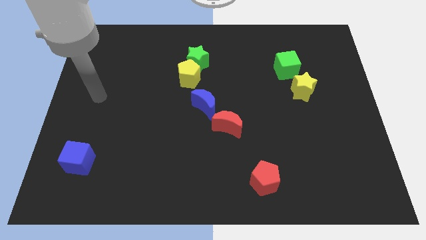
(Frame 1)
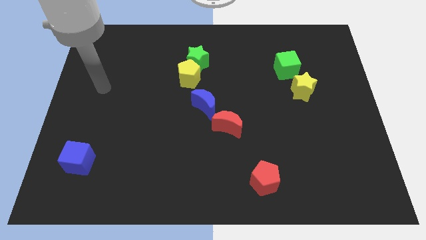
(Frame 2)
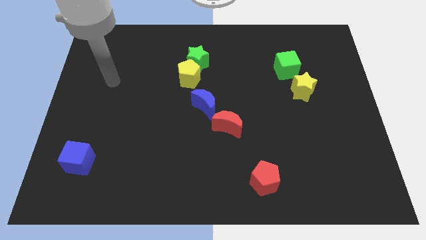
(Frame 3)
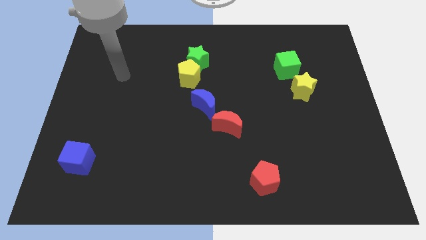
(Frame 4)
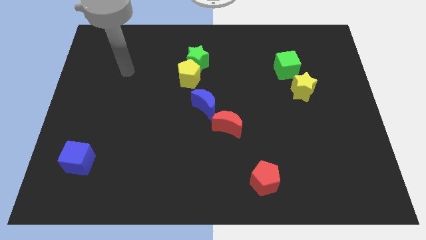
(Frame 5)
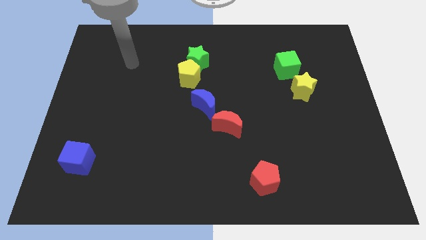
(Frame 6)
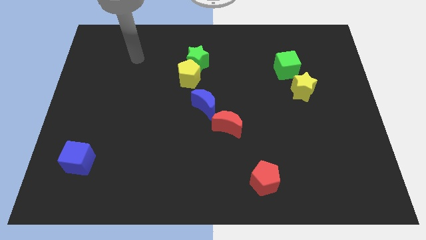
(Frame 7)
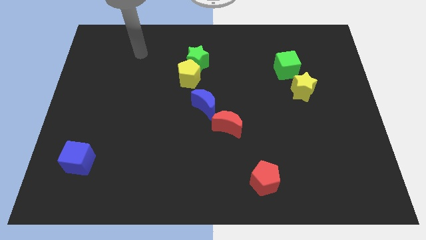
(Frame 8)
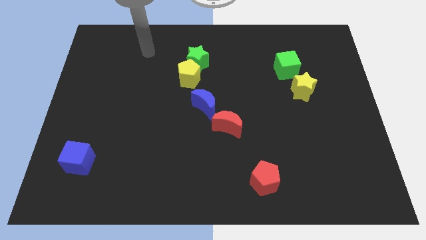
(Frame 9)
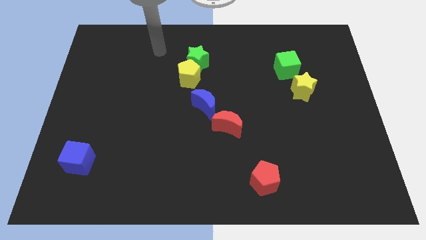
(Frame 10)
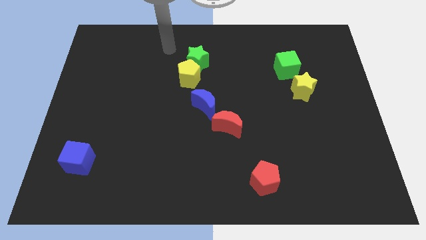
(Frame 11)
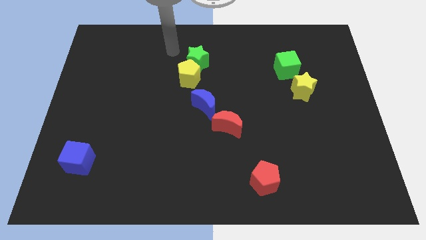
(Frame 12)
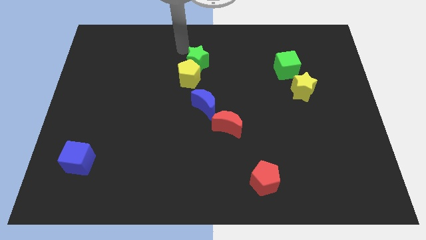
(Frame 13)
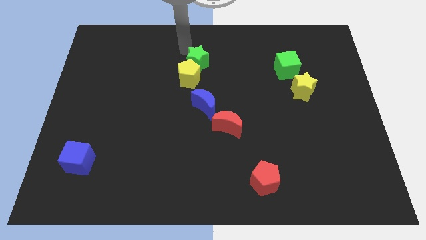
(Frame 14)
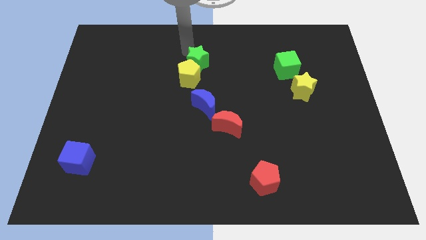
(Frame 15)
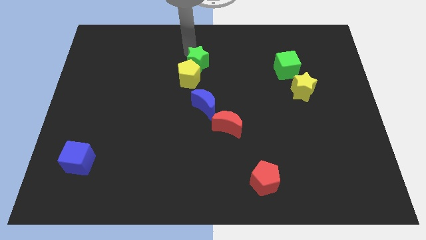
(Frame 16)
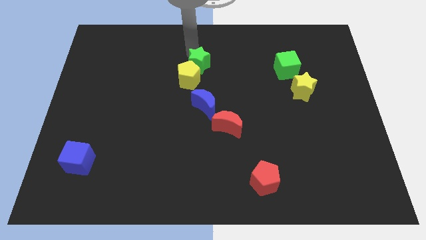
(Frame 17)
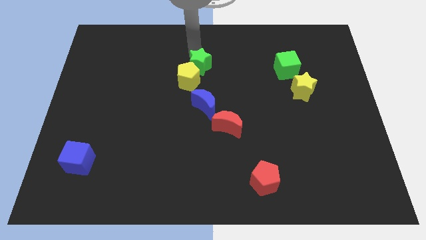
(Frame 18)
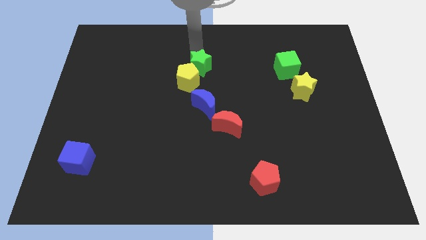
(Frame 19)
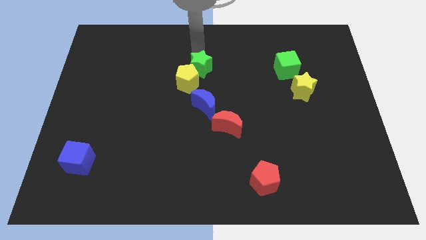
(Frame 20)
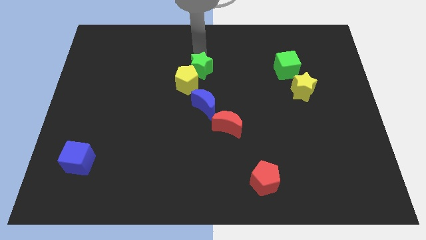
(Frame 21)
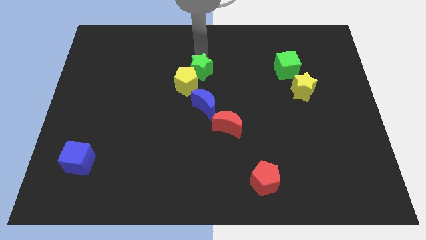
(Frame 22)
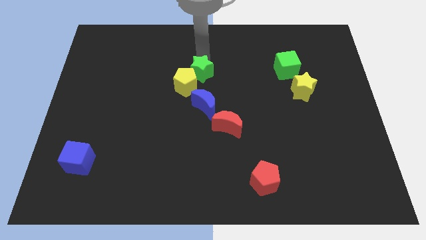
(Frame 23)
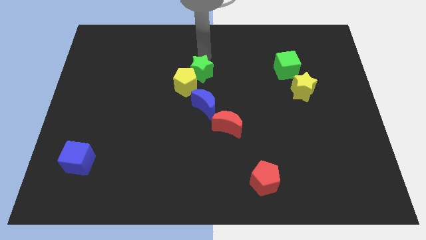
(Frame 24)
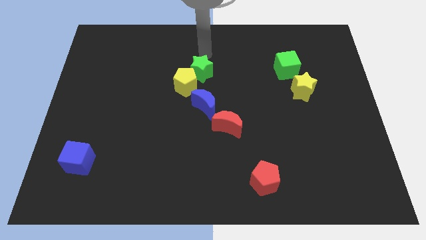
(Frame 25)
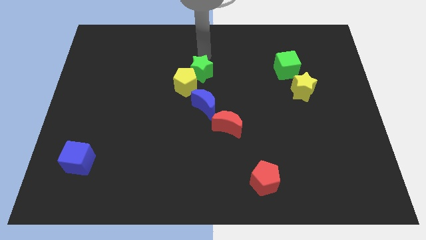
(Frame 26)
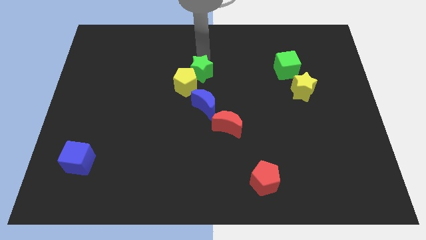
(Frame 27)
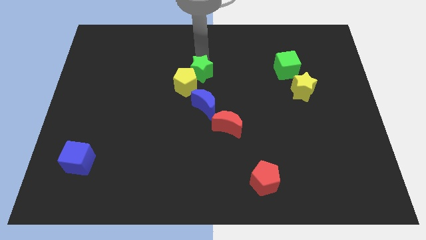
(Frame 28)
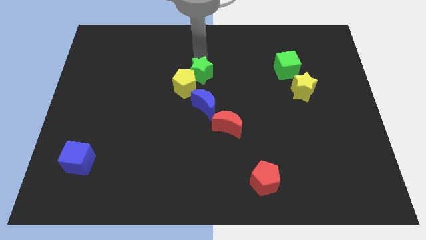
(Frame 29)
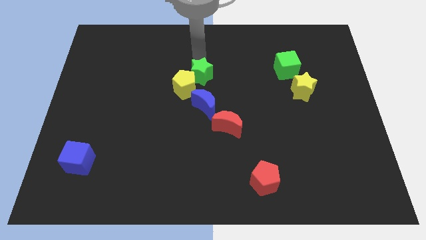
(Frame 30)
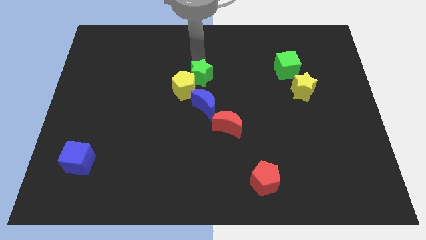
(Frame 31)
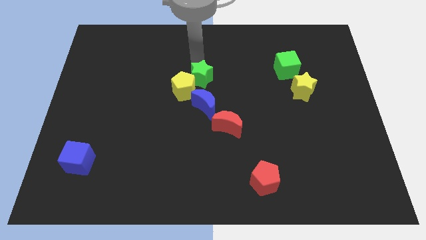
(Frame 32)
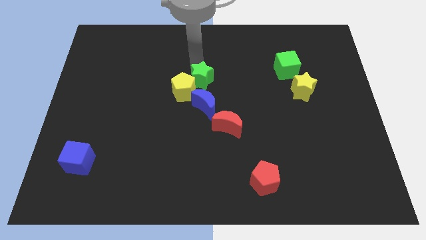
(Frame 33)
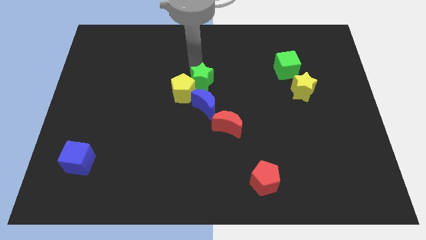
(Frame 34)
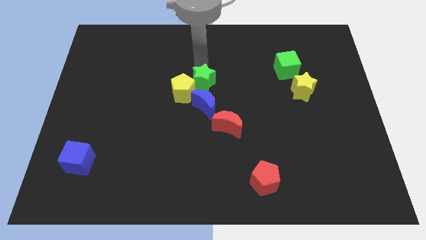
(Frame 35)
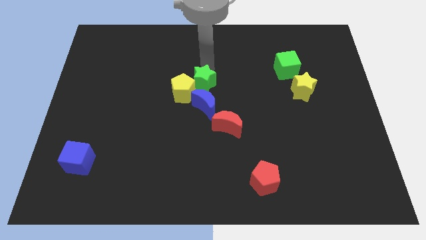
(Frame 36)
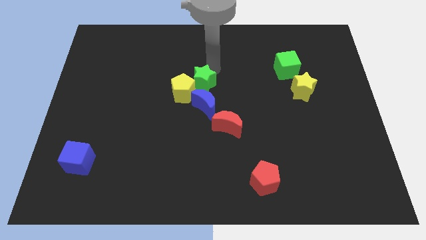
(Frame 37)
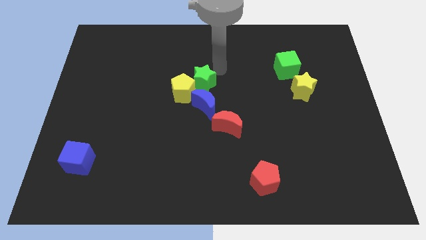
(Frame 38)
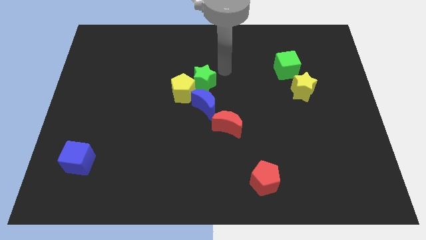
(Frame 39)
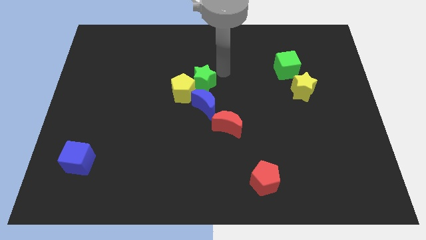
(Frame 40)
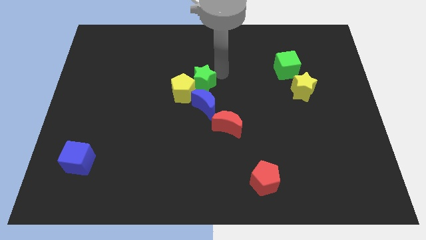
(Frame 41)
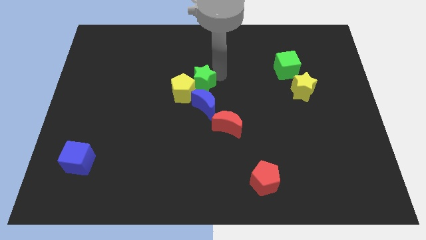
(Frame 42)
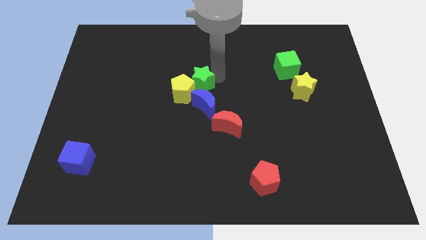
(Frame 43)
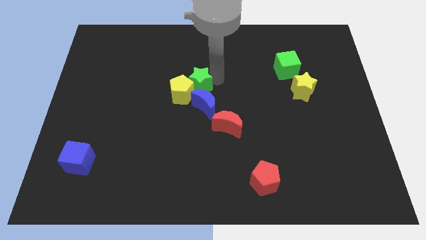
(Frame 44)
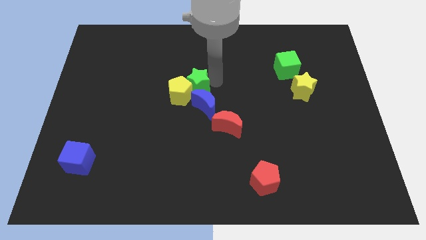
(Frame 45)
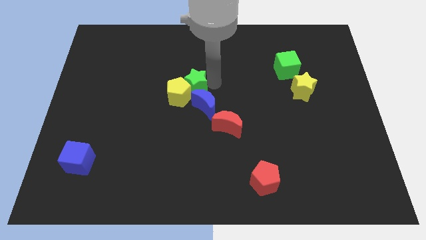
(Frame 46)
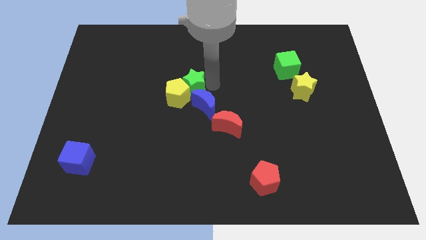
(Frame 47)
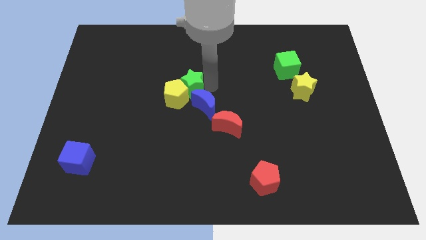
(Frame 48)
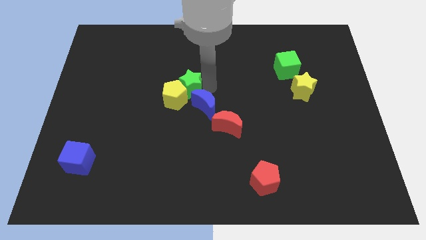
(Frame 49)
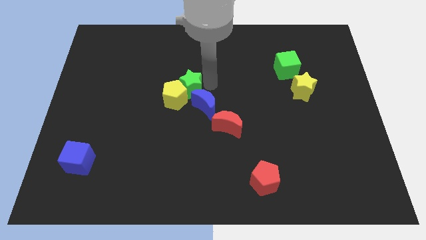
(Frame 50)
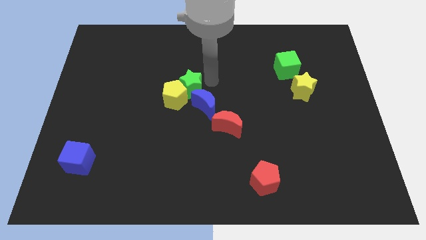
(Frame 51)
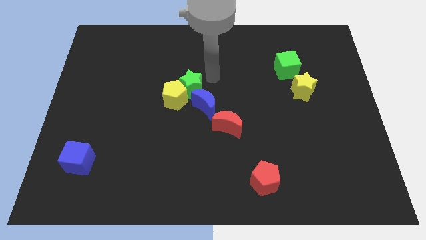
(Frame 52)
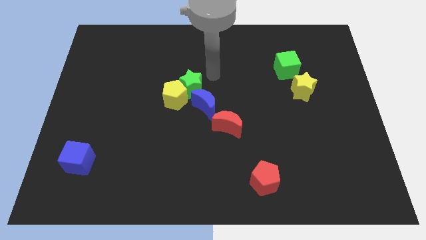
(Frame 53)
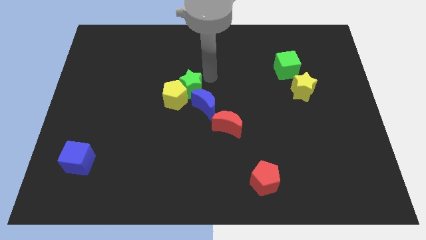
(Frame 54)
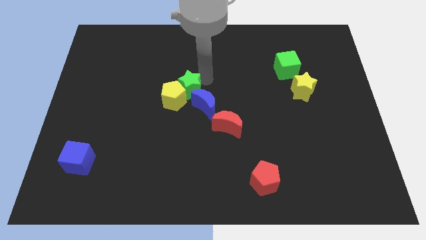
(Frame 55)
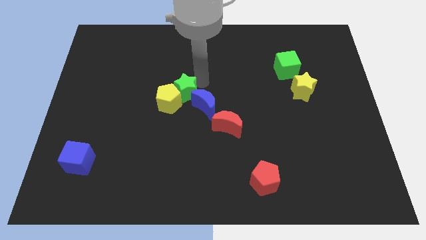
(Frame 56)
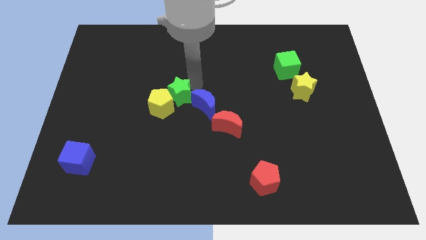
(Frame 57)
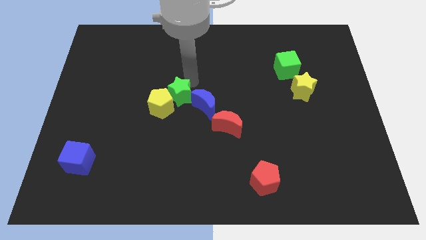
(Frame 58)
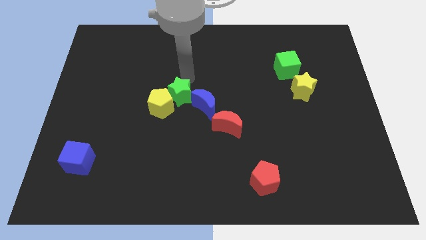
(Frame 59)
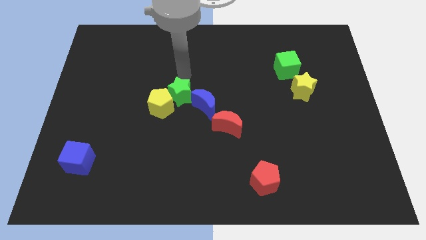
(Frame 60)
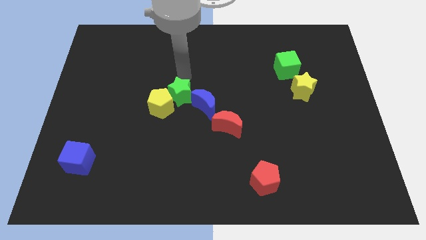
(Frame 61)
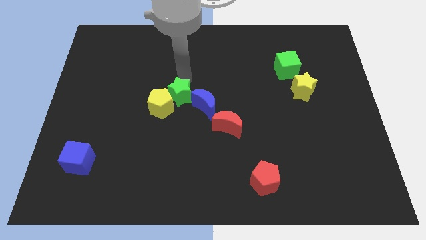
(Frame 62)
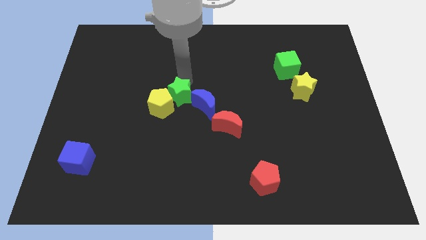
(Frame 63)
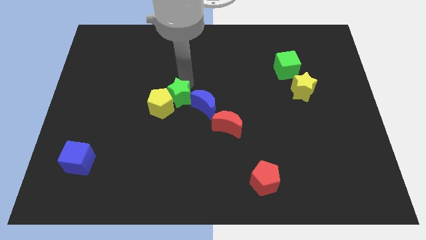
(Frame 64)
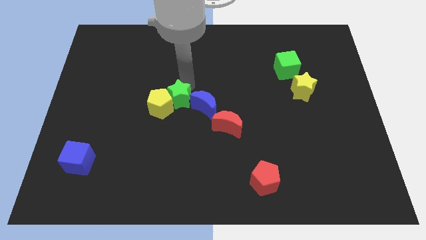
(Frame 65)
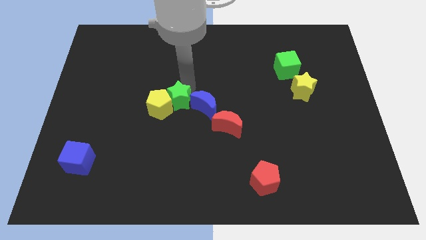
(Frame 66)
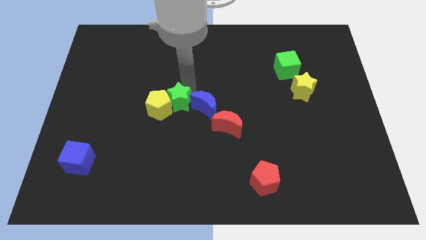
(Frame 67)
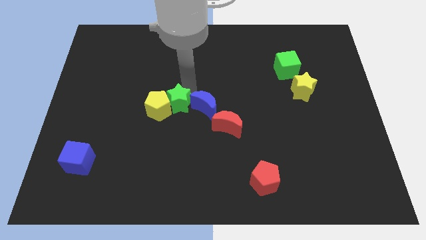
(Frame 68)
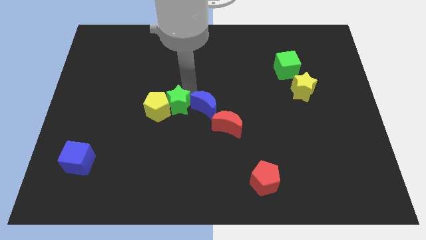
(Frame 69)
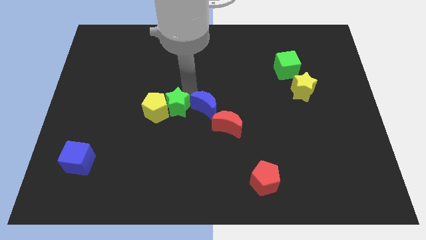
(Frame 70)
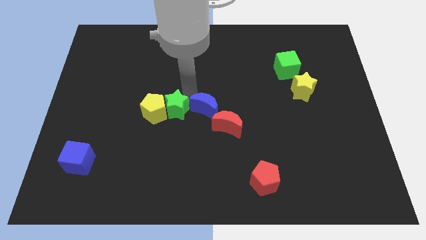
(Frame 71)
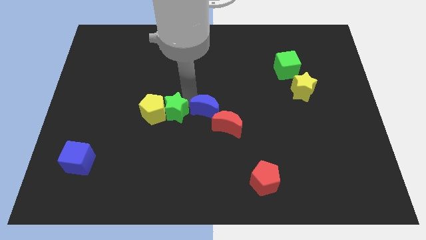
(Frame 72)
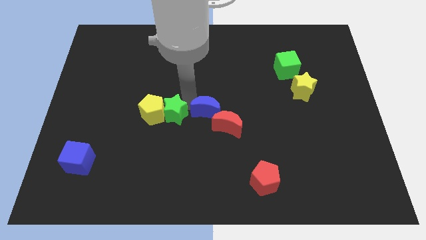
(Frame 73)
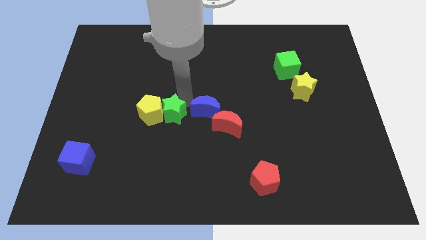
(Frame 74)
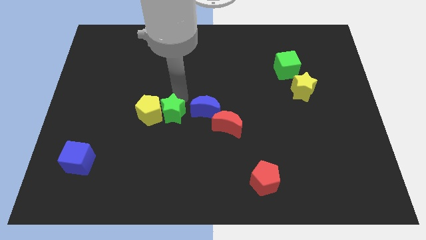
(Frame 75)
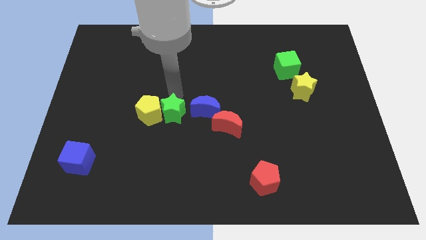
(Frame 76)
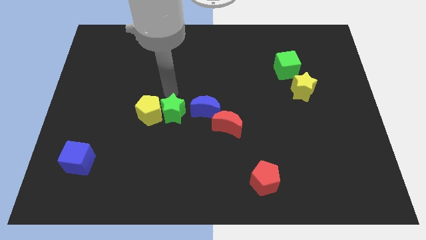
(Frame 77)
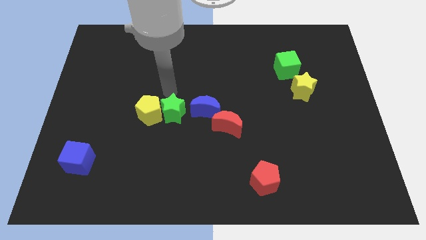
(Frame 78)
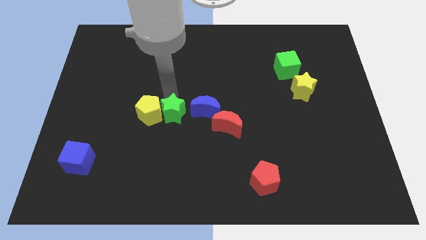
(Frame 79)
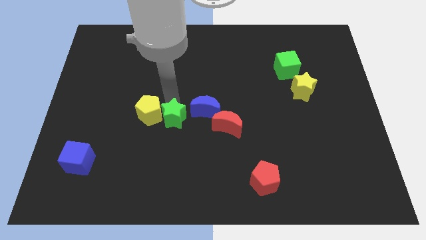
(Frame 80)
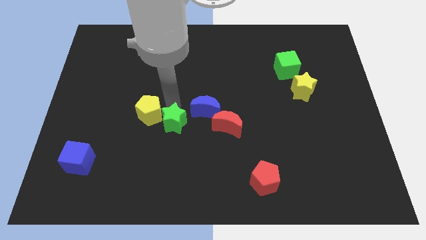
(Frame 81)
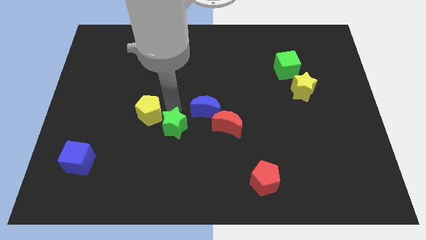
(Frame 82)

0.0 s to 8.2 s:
push the green star downwards

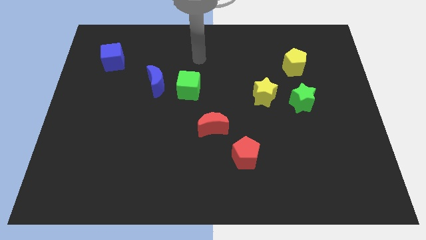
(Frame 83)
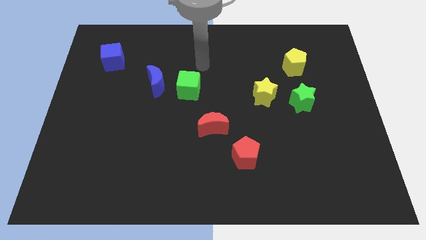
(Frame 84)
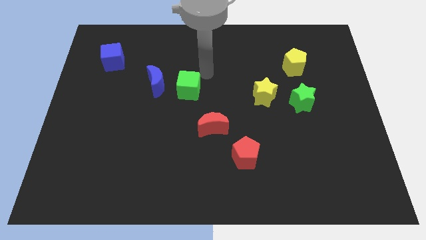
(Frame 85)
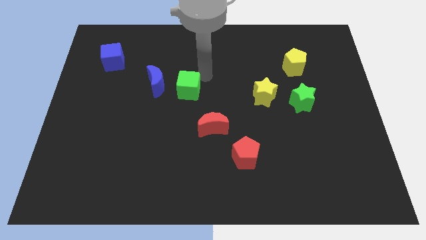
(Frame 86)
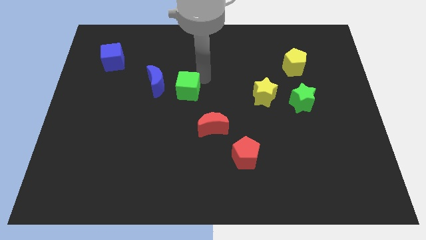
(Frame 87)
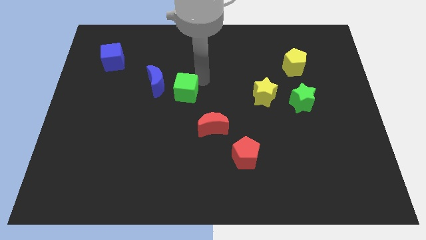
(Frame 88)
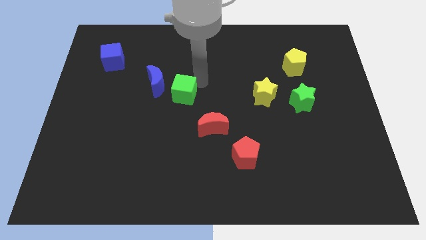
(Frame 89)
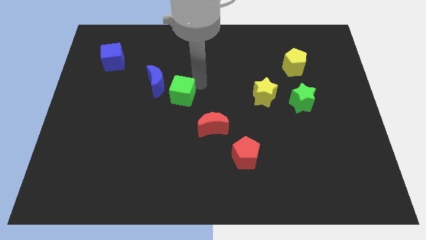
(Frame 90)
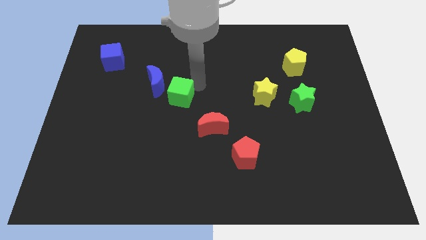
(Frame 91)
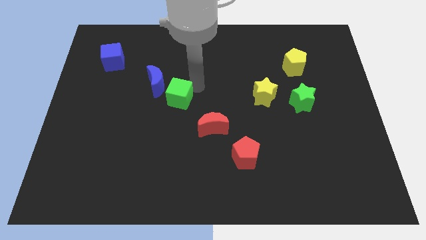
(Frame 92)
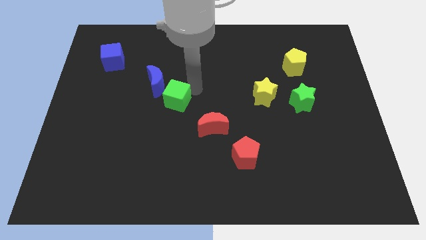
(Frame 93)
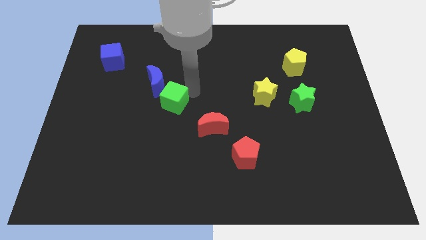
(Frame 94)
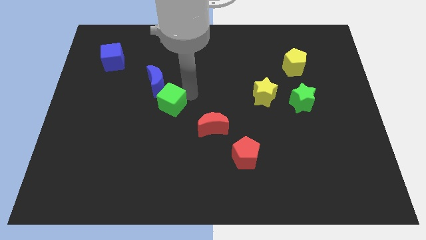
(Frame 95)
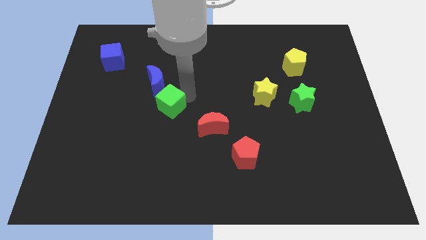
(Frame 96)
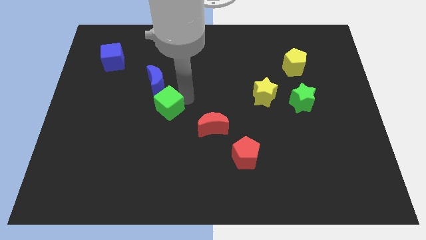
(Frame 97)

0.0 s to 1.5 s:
move the green cube downwards and then left slightly
